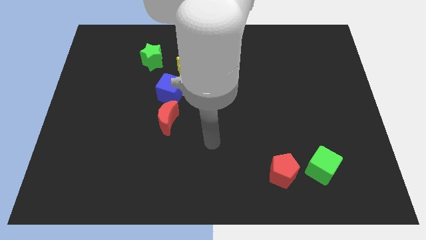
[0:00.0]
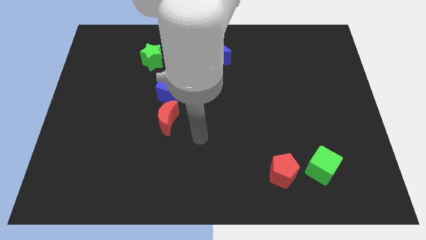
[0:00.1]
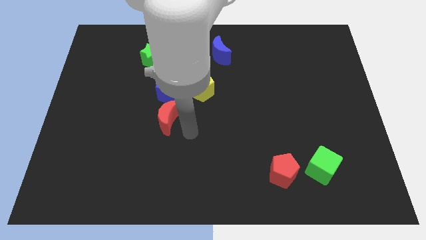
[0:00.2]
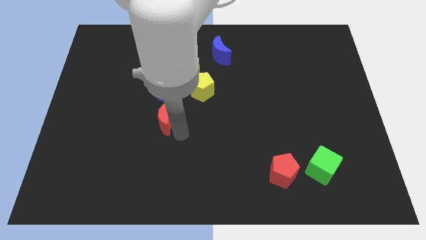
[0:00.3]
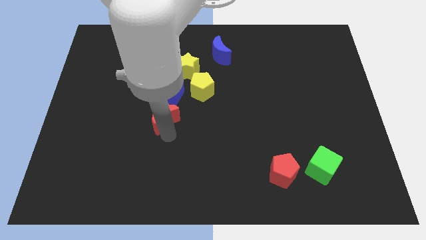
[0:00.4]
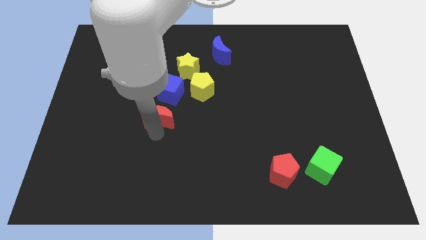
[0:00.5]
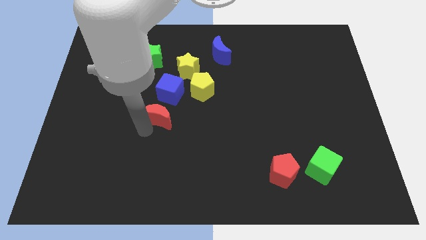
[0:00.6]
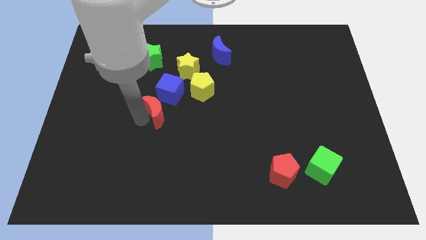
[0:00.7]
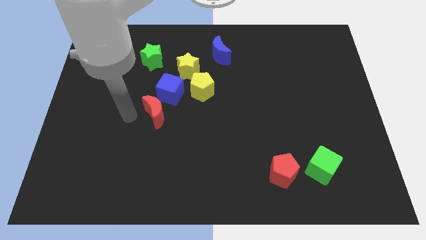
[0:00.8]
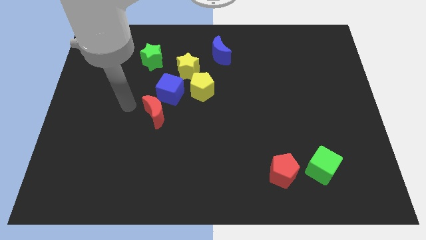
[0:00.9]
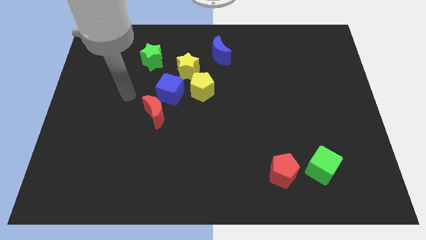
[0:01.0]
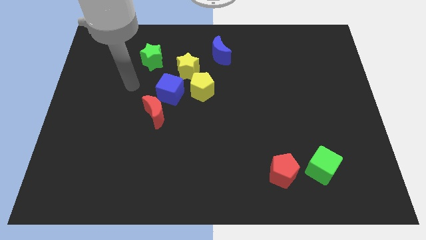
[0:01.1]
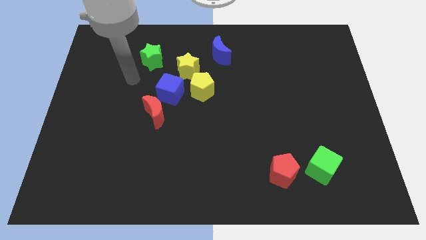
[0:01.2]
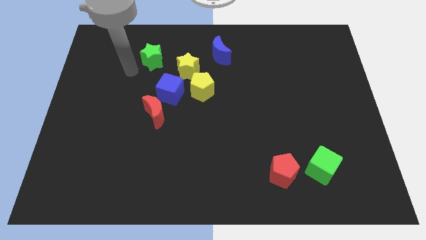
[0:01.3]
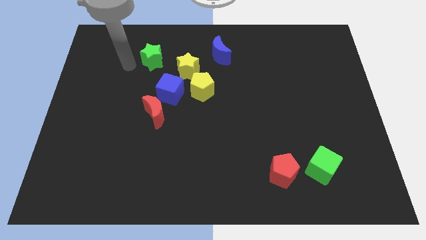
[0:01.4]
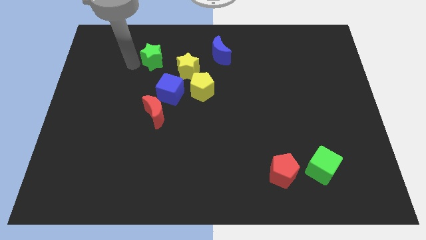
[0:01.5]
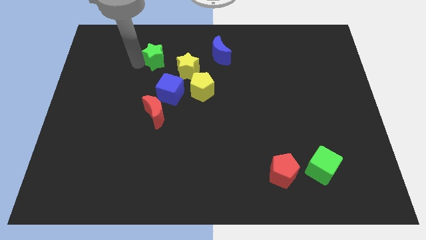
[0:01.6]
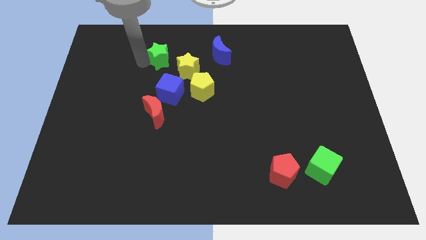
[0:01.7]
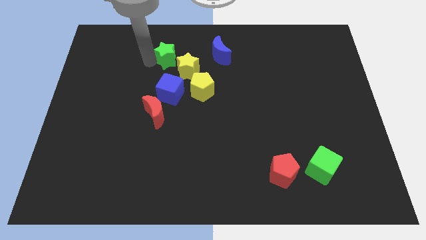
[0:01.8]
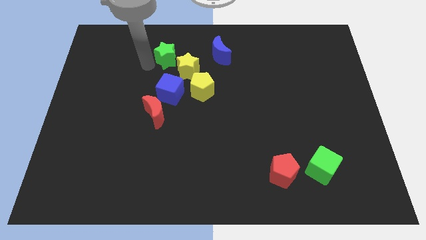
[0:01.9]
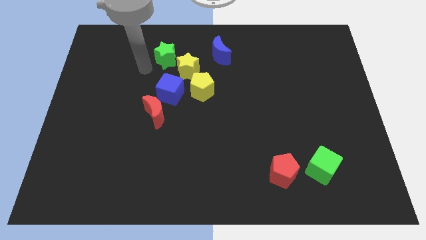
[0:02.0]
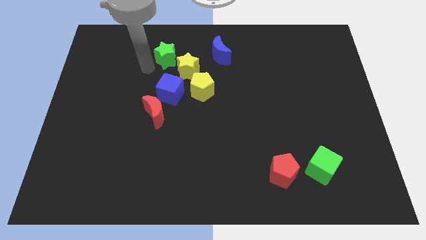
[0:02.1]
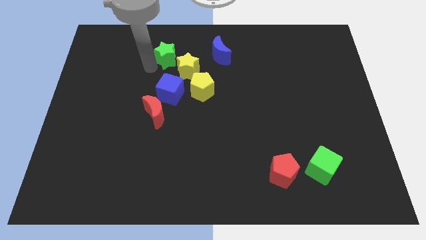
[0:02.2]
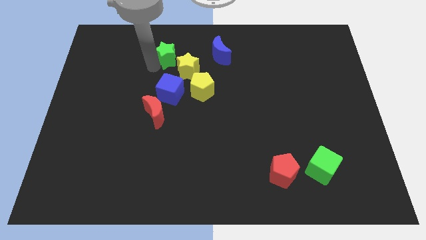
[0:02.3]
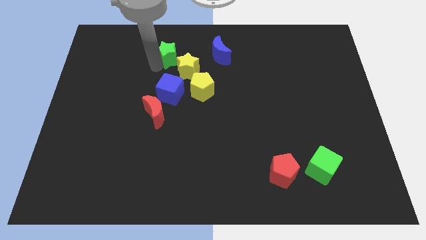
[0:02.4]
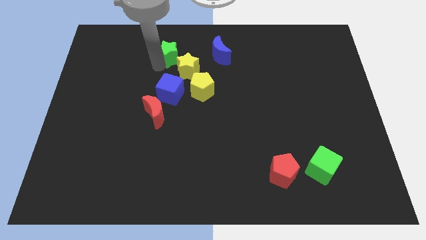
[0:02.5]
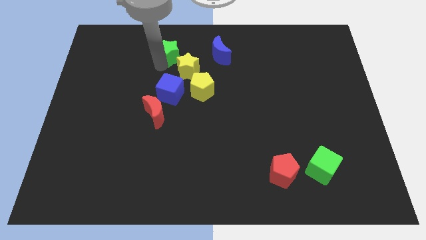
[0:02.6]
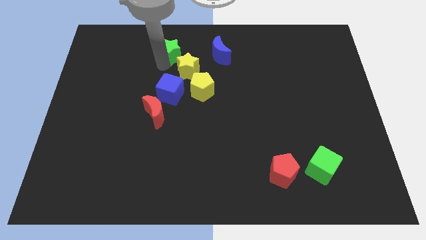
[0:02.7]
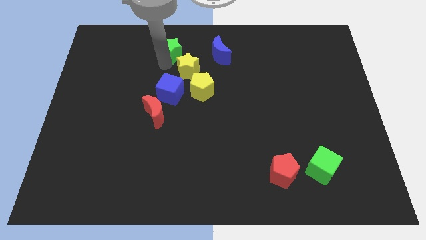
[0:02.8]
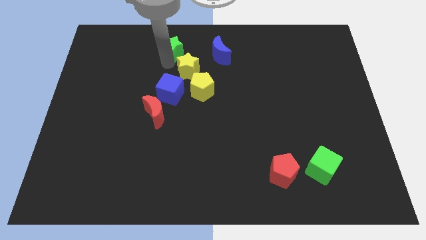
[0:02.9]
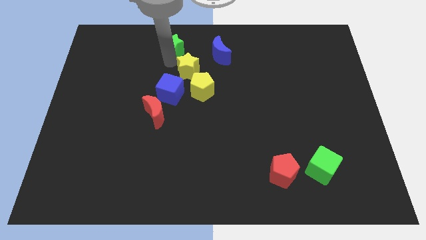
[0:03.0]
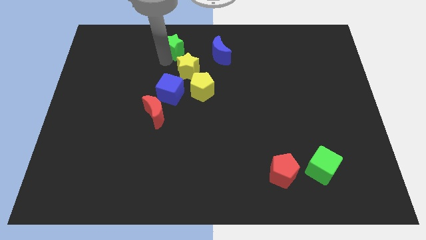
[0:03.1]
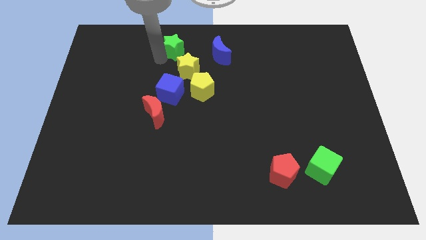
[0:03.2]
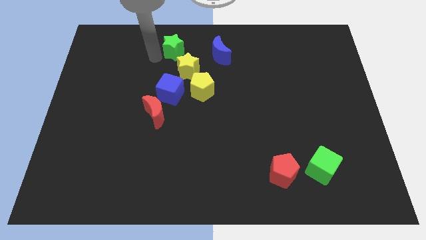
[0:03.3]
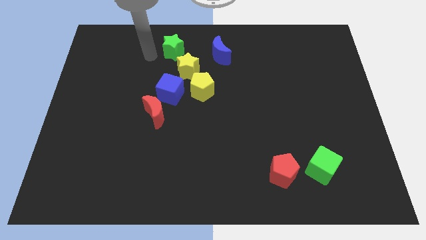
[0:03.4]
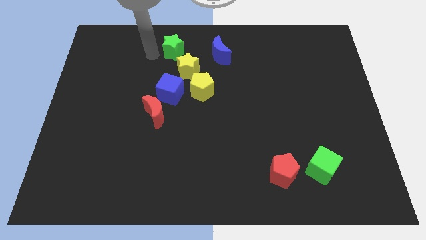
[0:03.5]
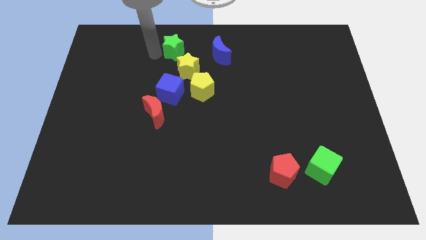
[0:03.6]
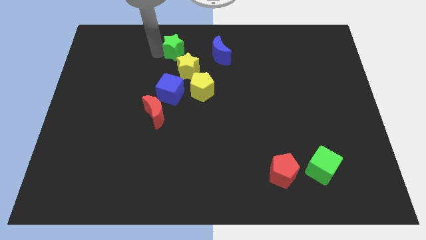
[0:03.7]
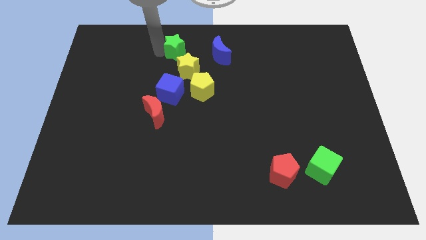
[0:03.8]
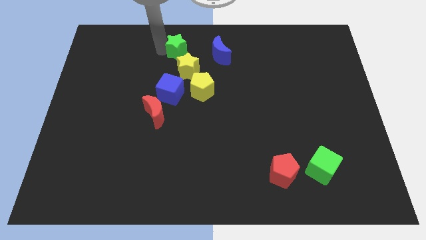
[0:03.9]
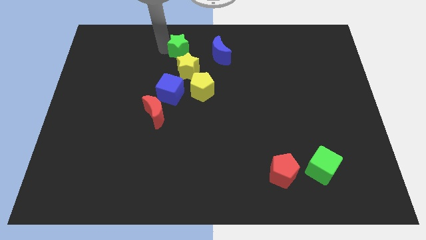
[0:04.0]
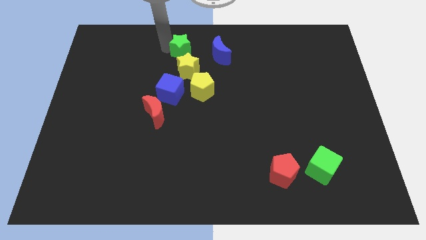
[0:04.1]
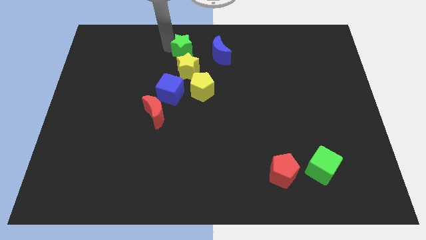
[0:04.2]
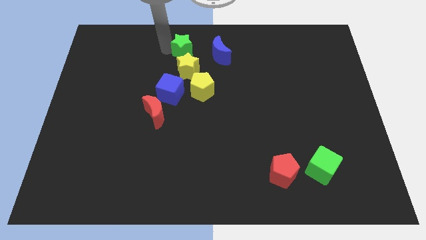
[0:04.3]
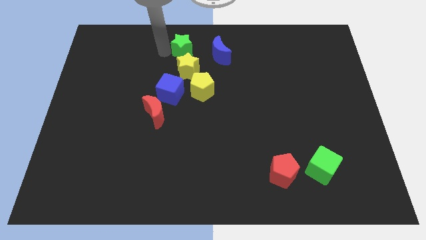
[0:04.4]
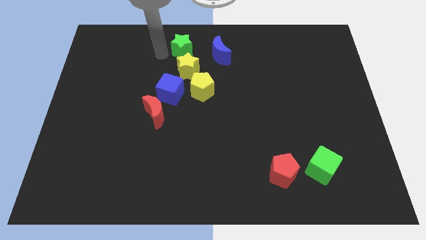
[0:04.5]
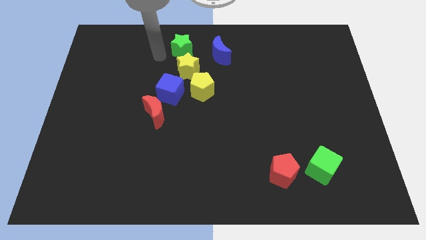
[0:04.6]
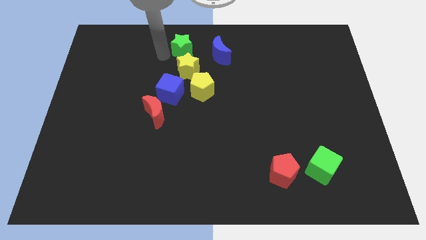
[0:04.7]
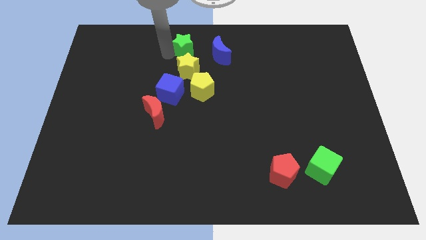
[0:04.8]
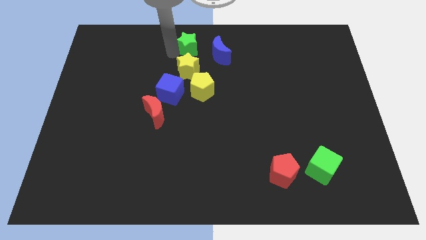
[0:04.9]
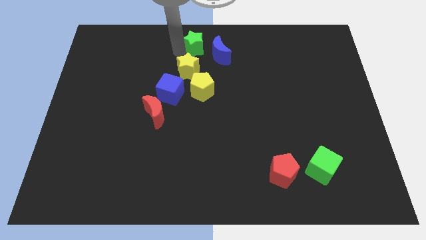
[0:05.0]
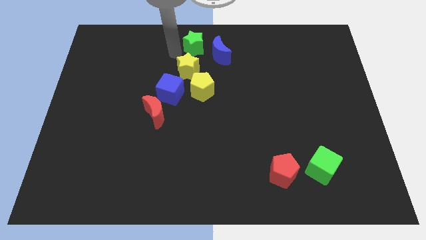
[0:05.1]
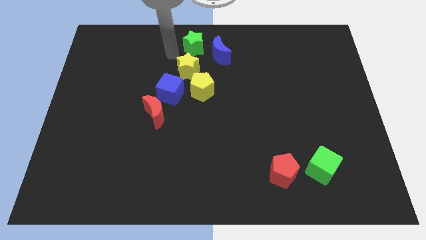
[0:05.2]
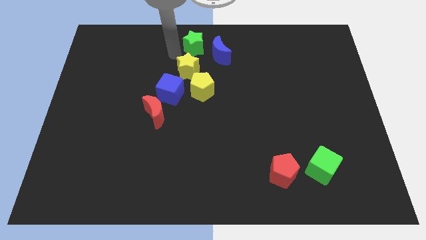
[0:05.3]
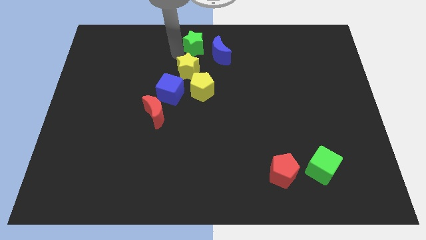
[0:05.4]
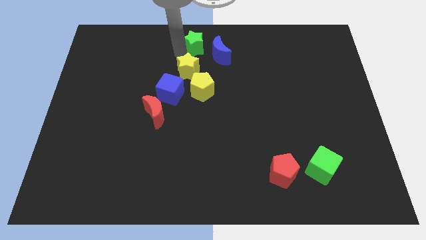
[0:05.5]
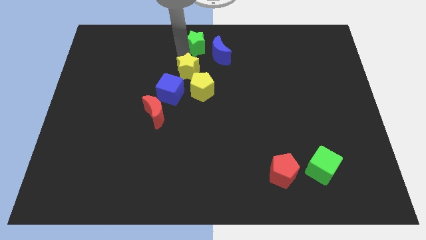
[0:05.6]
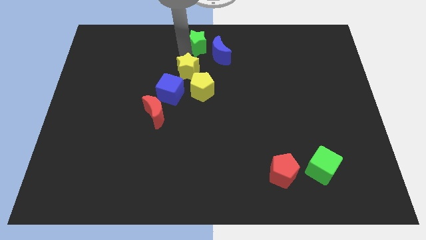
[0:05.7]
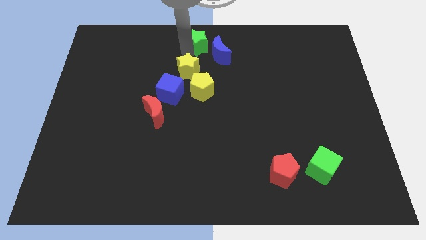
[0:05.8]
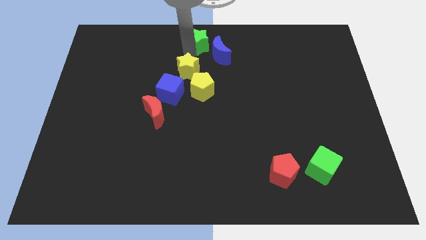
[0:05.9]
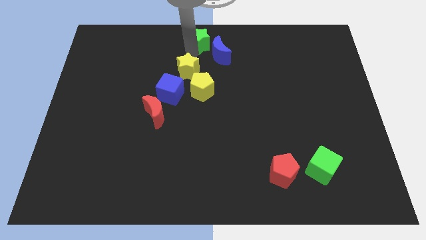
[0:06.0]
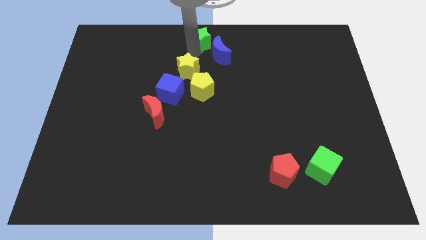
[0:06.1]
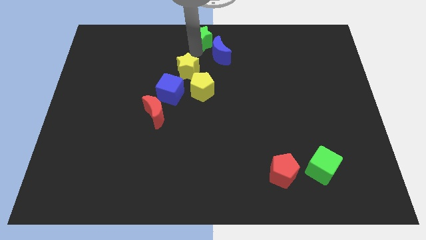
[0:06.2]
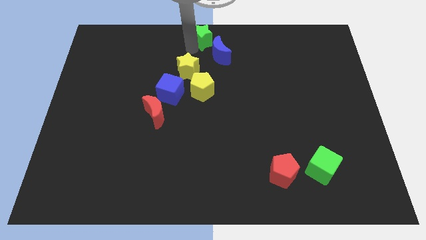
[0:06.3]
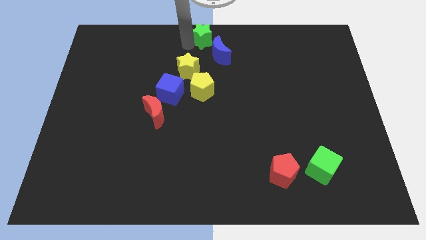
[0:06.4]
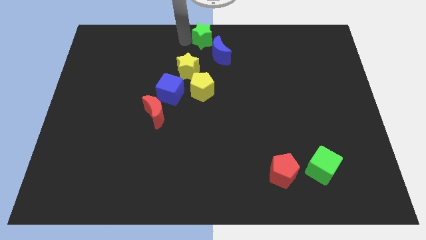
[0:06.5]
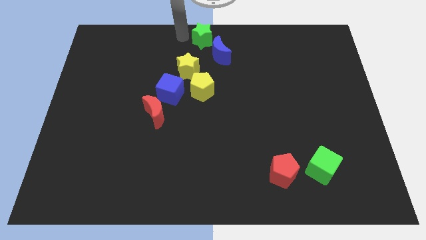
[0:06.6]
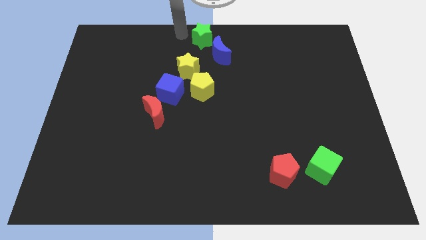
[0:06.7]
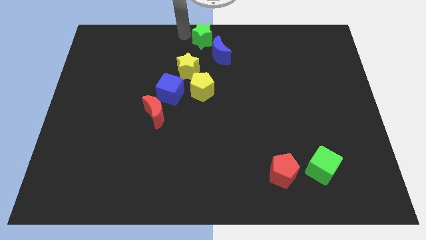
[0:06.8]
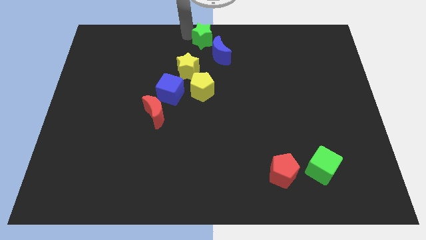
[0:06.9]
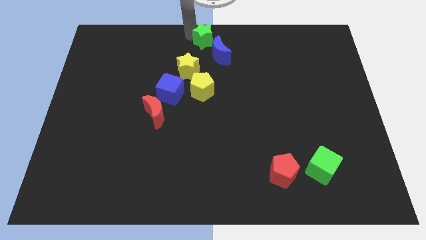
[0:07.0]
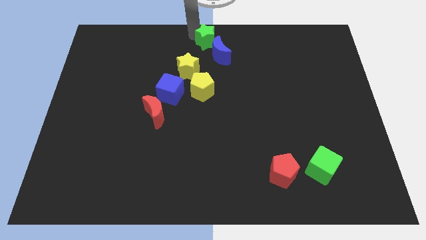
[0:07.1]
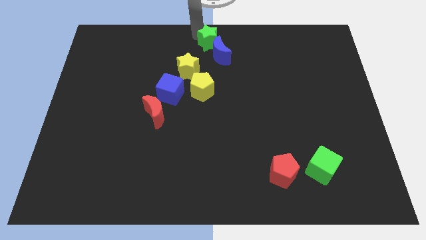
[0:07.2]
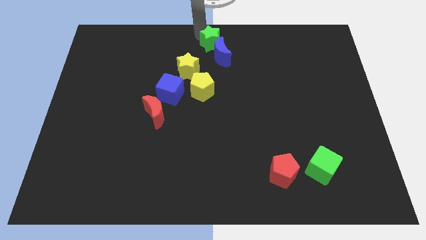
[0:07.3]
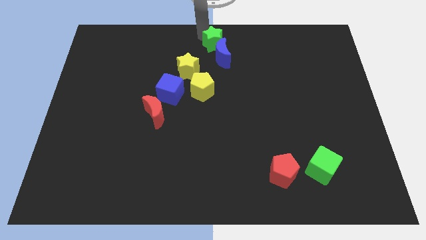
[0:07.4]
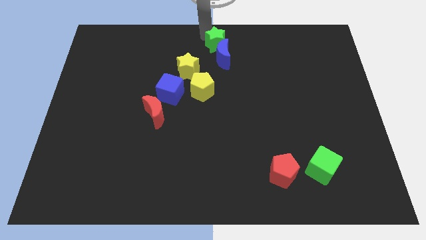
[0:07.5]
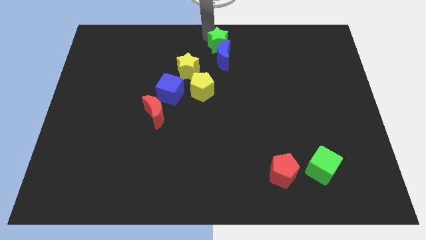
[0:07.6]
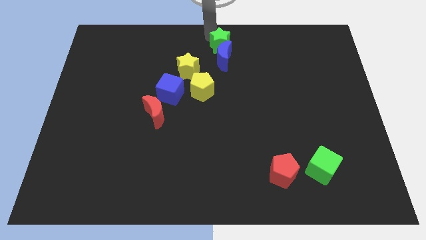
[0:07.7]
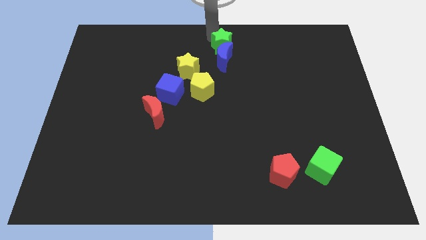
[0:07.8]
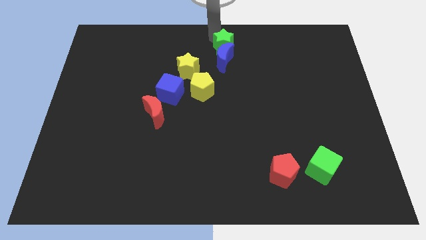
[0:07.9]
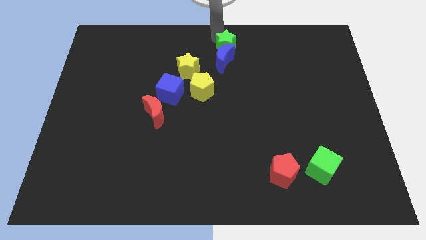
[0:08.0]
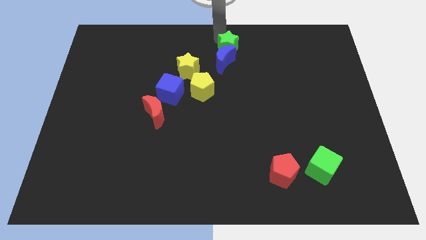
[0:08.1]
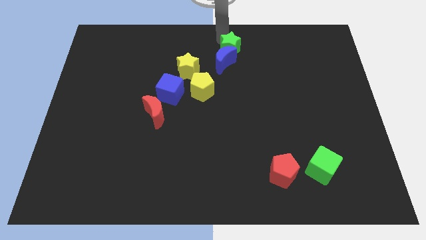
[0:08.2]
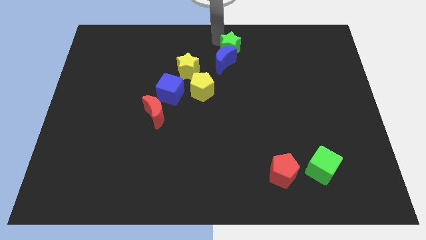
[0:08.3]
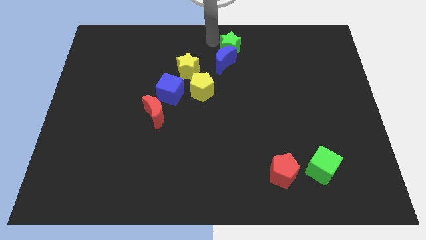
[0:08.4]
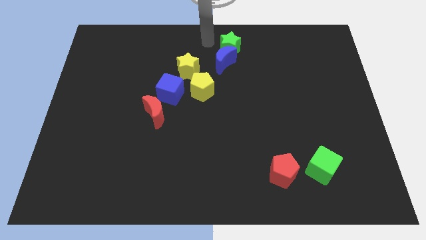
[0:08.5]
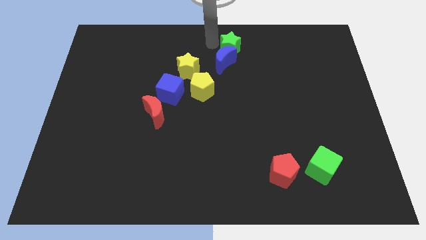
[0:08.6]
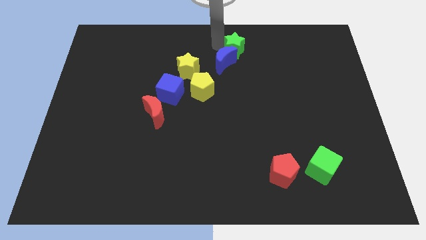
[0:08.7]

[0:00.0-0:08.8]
slide the green star right
